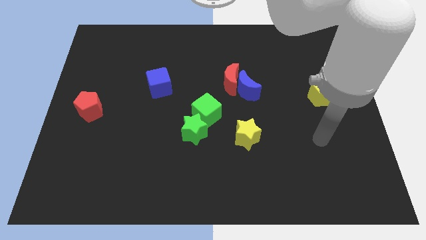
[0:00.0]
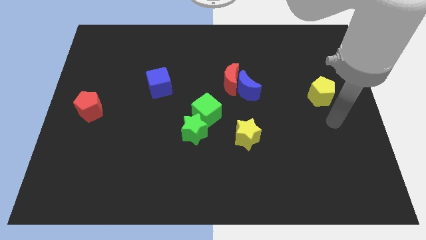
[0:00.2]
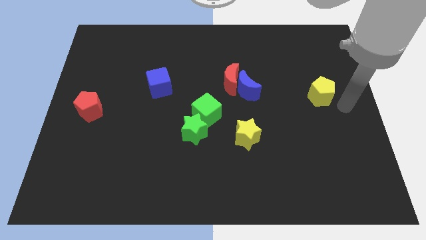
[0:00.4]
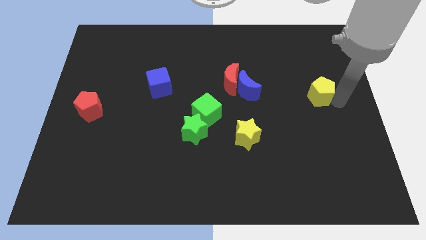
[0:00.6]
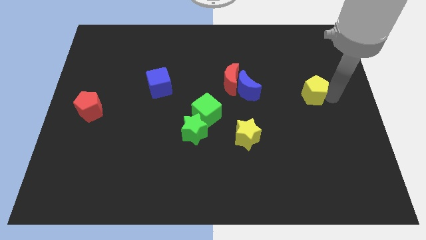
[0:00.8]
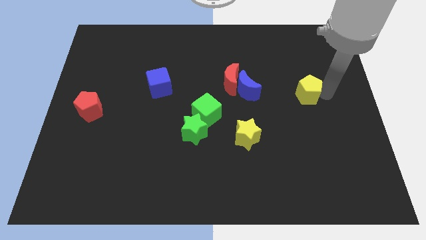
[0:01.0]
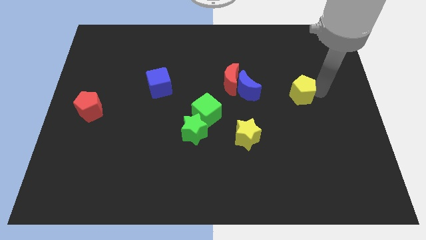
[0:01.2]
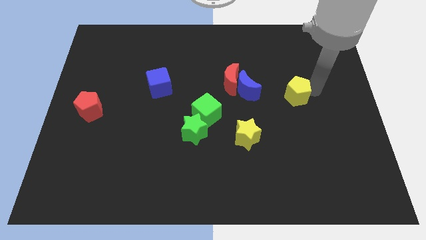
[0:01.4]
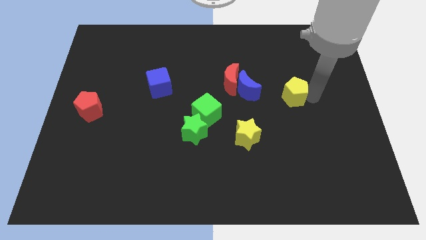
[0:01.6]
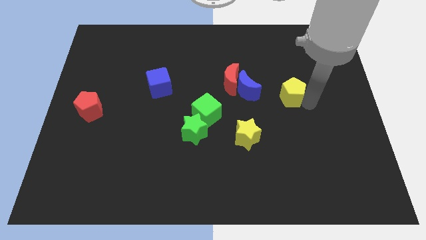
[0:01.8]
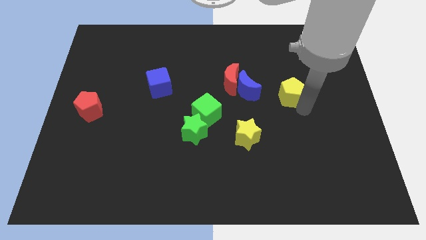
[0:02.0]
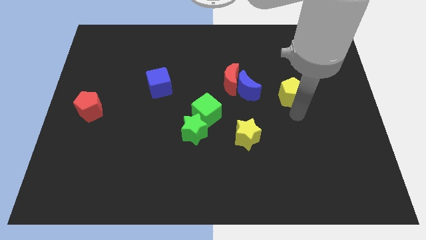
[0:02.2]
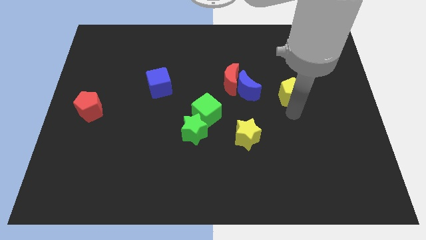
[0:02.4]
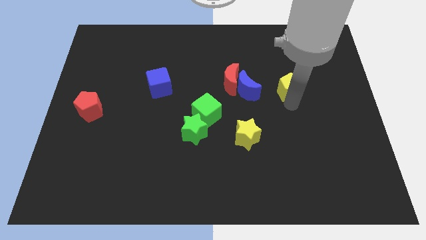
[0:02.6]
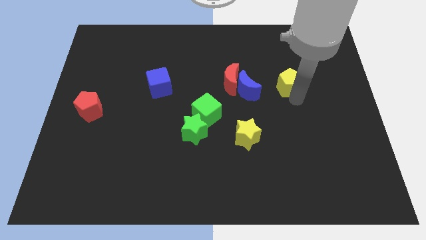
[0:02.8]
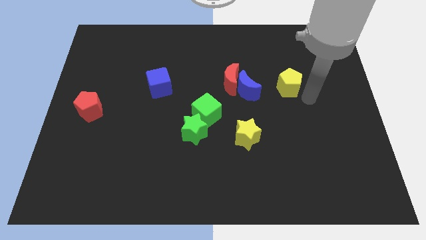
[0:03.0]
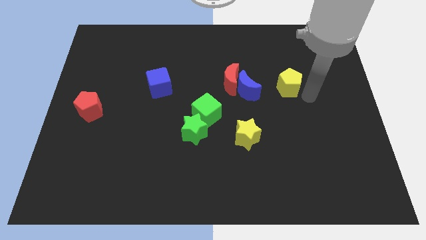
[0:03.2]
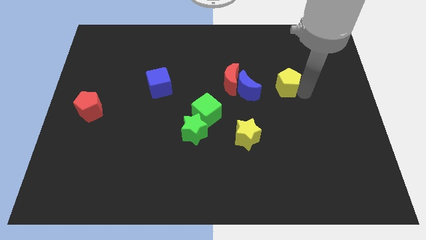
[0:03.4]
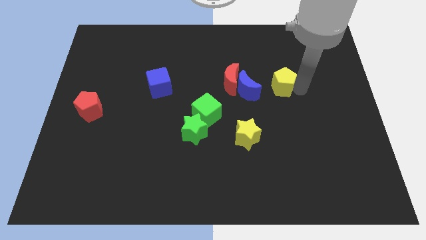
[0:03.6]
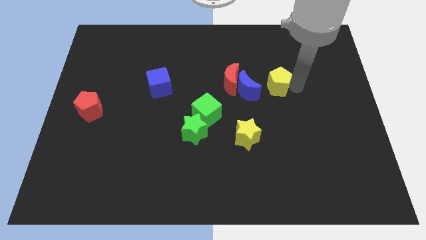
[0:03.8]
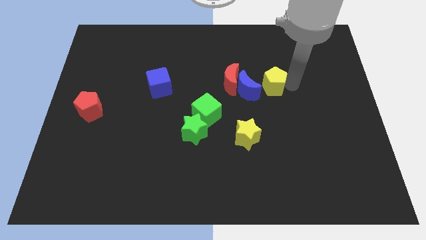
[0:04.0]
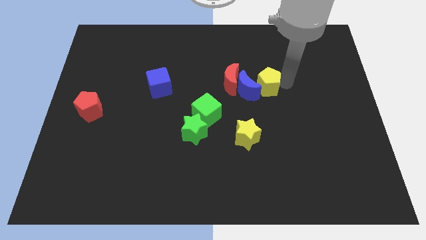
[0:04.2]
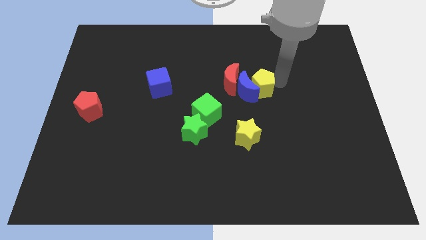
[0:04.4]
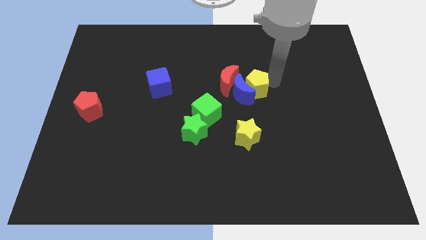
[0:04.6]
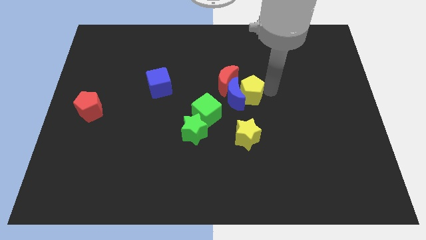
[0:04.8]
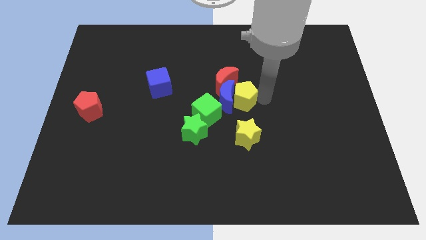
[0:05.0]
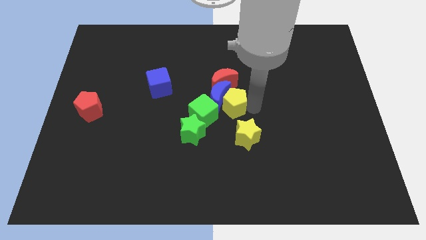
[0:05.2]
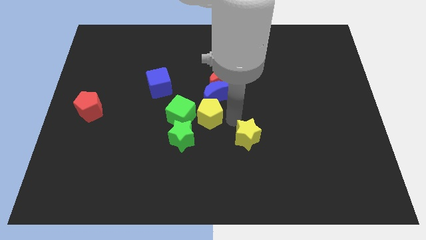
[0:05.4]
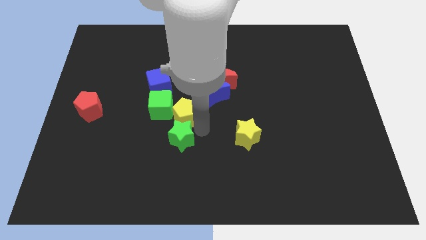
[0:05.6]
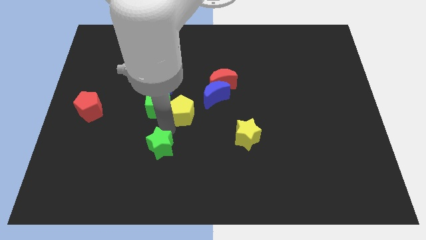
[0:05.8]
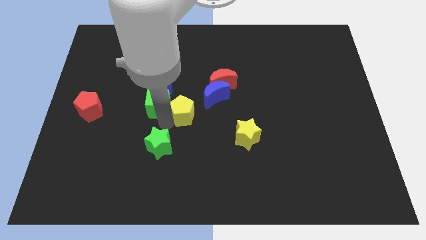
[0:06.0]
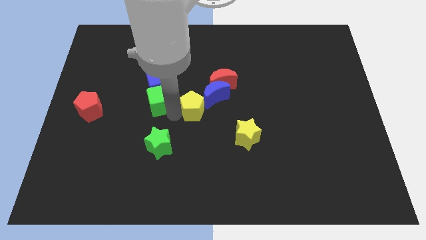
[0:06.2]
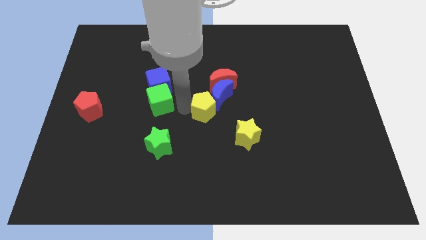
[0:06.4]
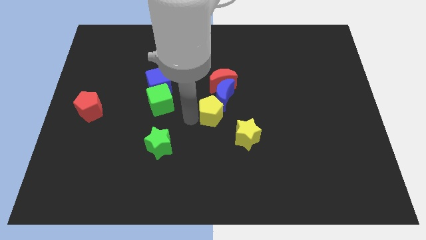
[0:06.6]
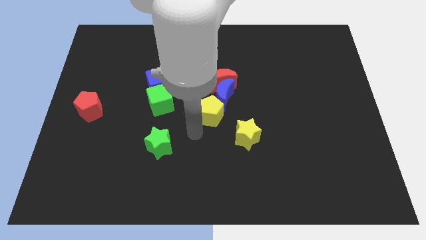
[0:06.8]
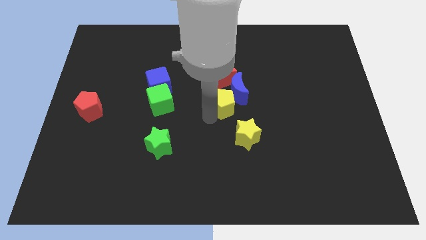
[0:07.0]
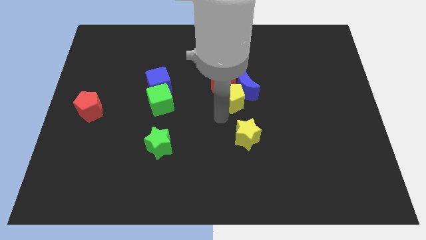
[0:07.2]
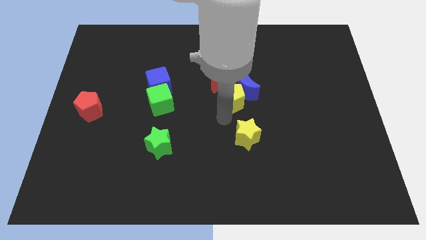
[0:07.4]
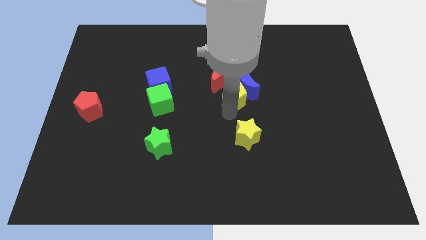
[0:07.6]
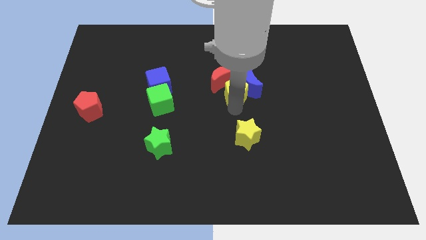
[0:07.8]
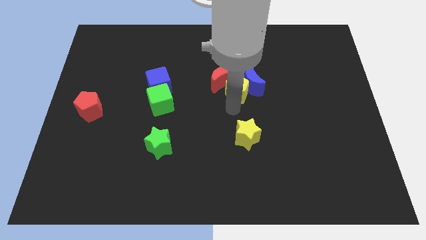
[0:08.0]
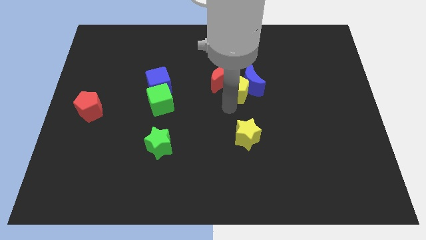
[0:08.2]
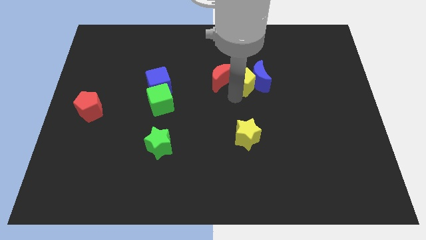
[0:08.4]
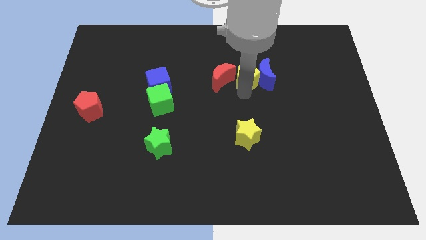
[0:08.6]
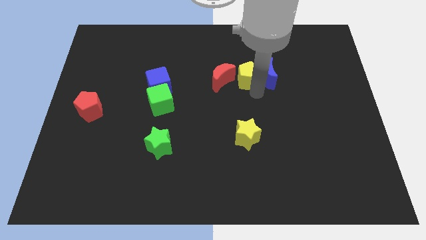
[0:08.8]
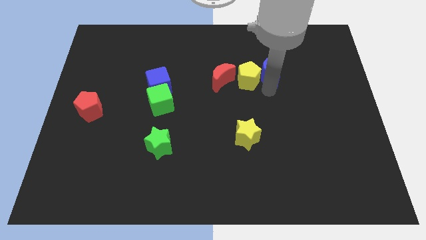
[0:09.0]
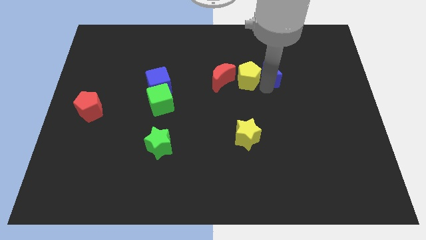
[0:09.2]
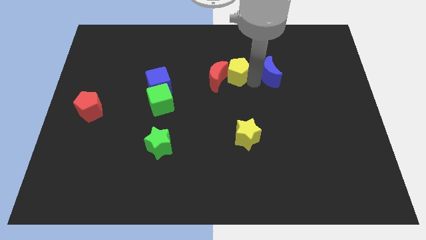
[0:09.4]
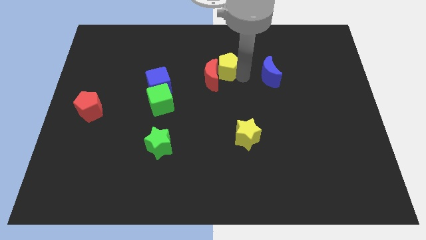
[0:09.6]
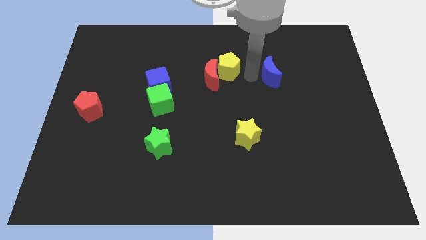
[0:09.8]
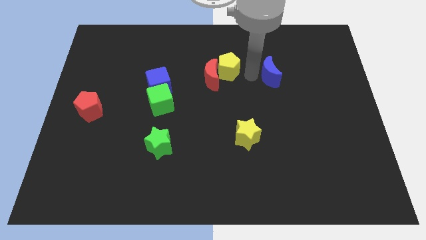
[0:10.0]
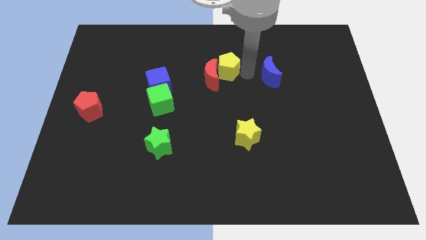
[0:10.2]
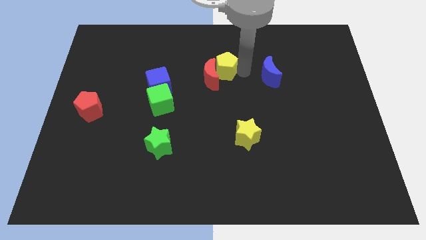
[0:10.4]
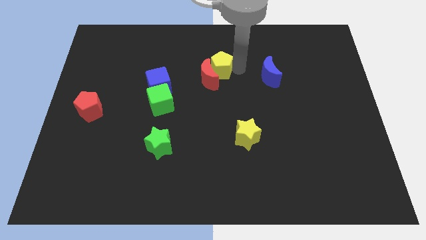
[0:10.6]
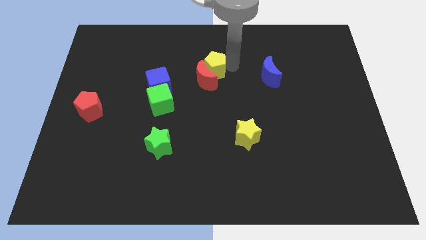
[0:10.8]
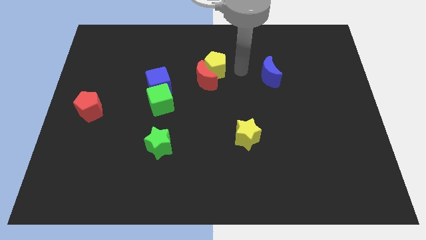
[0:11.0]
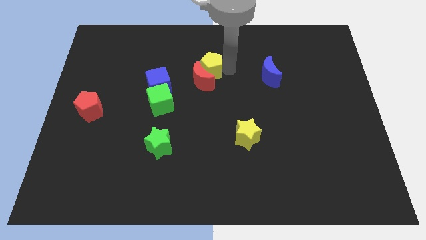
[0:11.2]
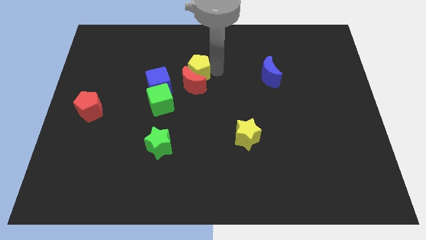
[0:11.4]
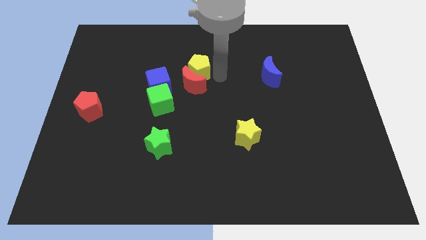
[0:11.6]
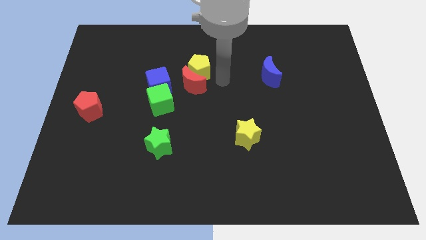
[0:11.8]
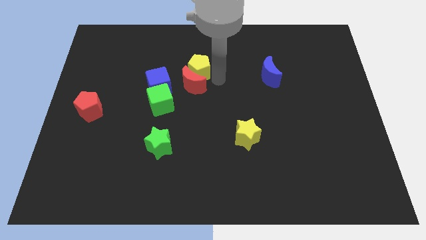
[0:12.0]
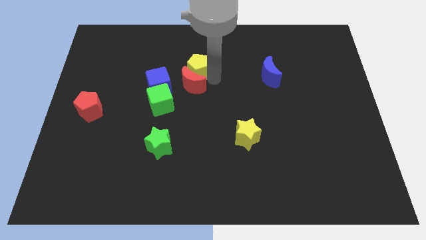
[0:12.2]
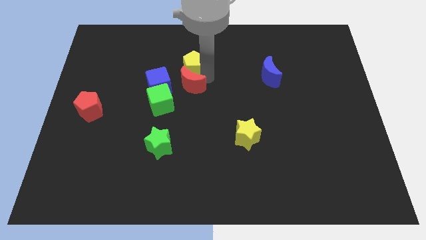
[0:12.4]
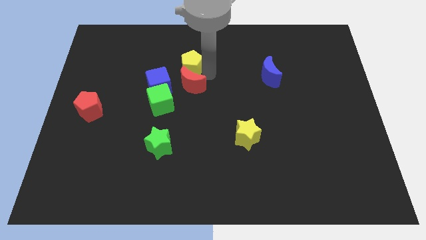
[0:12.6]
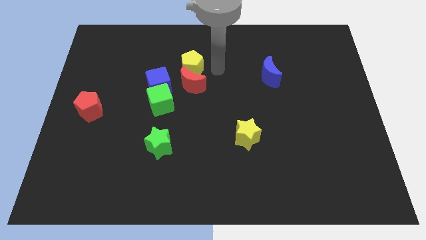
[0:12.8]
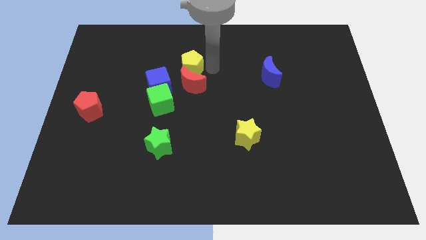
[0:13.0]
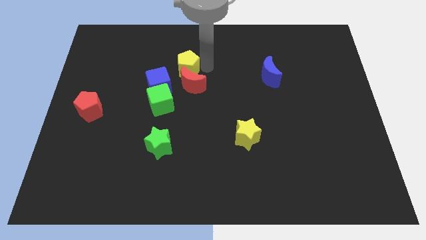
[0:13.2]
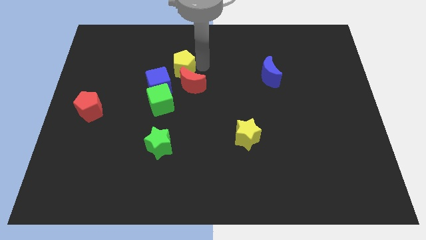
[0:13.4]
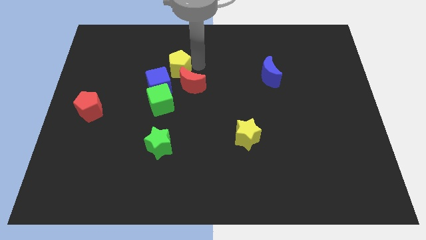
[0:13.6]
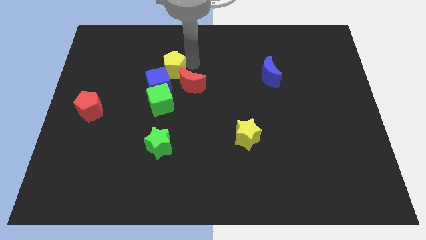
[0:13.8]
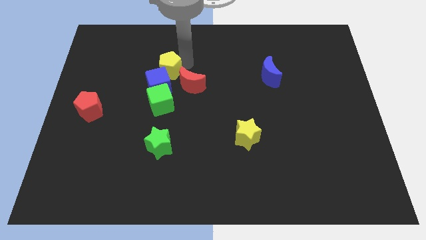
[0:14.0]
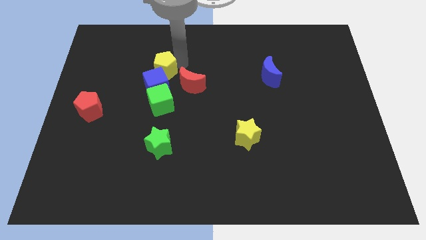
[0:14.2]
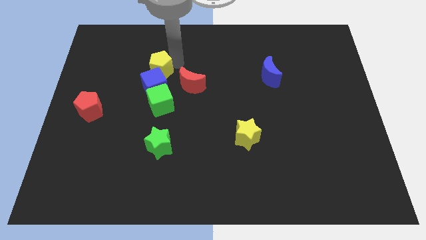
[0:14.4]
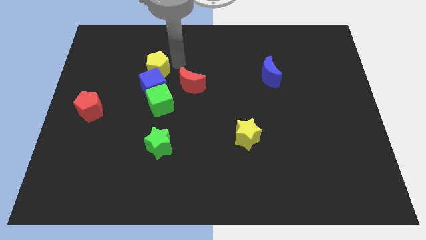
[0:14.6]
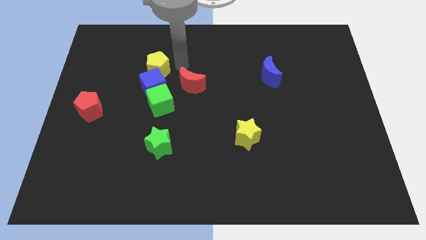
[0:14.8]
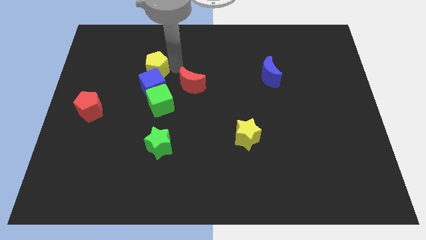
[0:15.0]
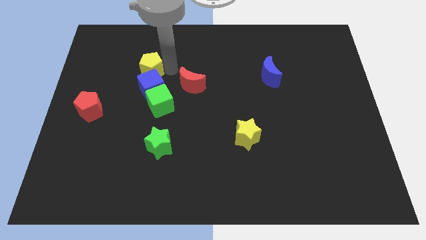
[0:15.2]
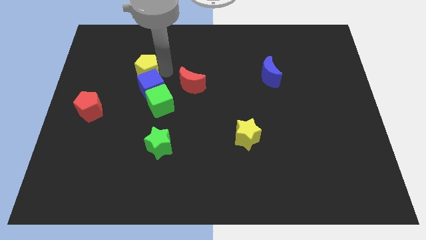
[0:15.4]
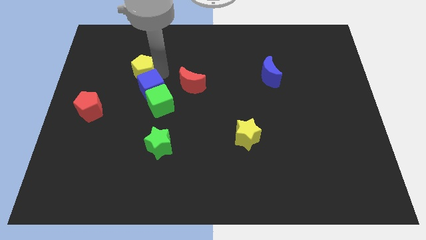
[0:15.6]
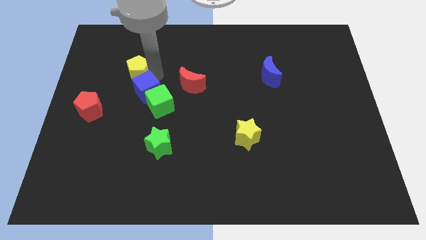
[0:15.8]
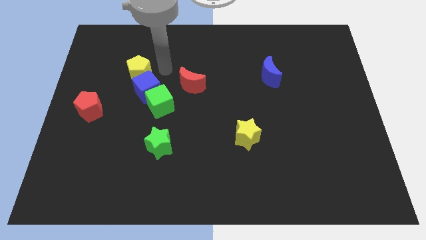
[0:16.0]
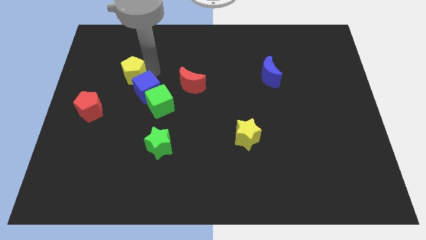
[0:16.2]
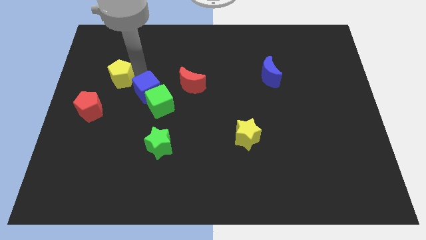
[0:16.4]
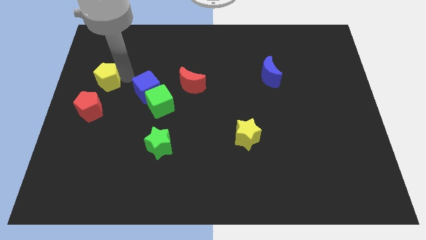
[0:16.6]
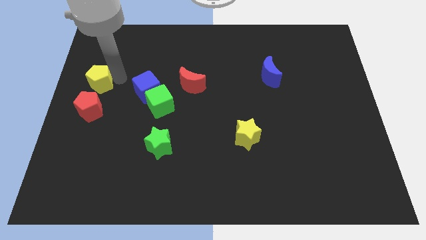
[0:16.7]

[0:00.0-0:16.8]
put the yellow pentagon to the left side of the board
